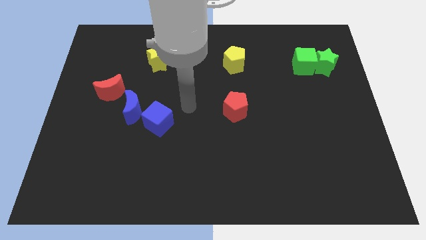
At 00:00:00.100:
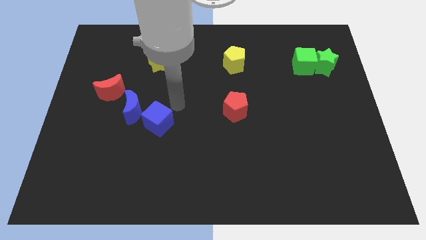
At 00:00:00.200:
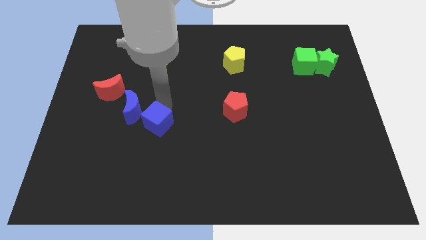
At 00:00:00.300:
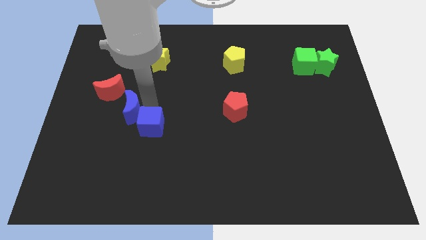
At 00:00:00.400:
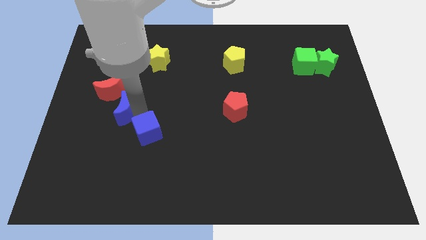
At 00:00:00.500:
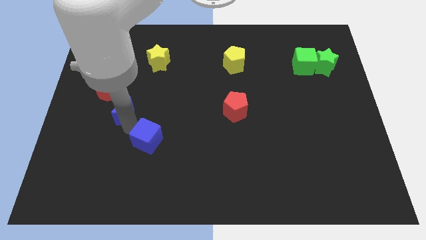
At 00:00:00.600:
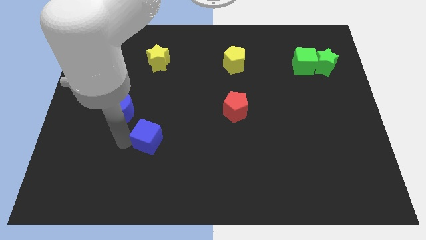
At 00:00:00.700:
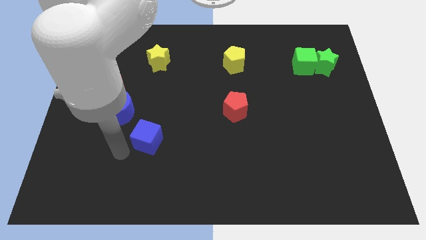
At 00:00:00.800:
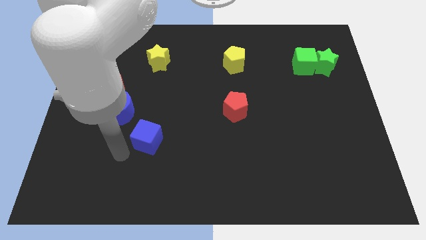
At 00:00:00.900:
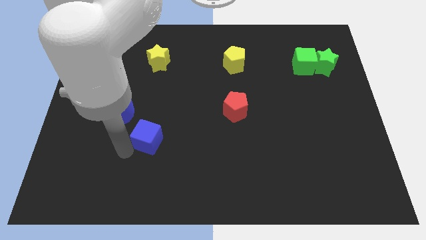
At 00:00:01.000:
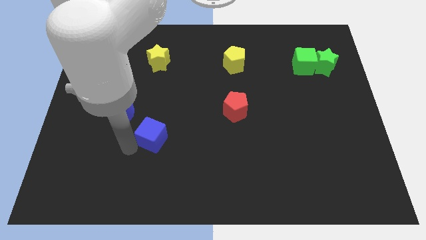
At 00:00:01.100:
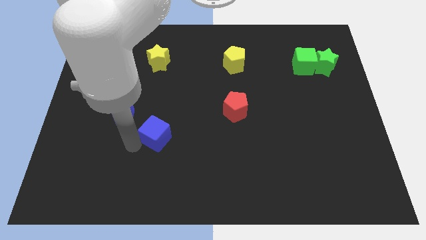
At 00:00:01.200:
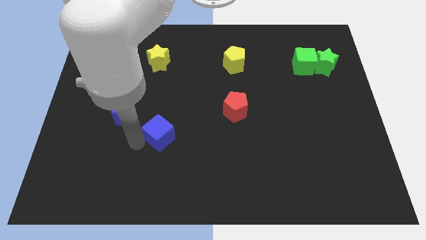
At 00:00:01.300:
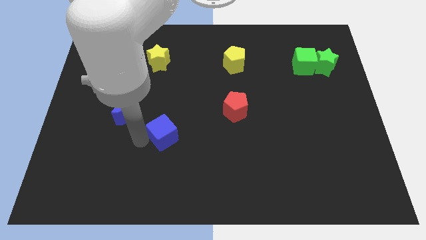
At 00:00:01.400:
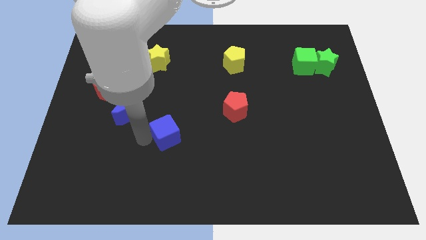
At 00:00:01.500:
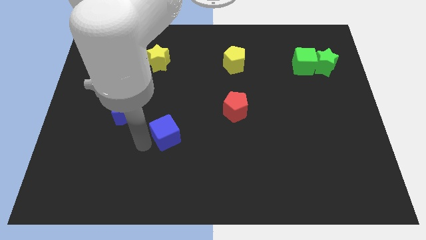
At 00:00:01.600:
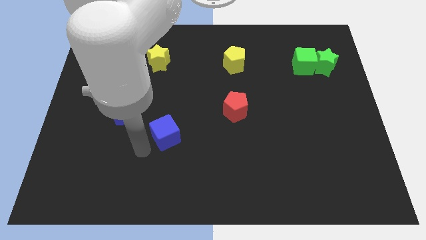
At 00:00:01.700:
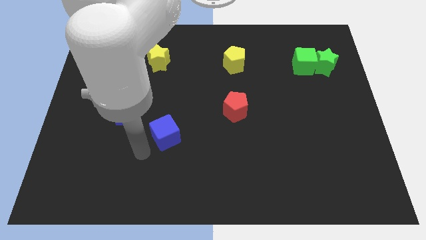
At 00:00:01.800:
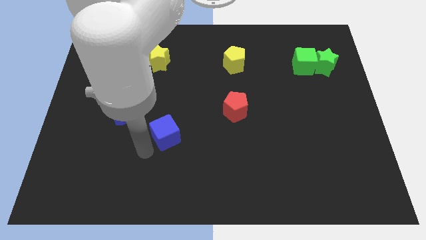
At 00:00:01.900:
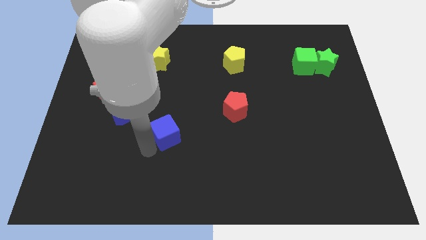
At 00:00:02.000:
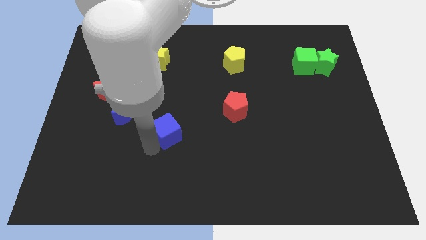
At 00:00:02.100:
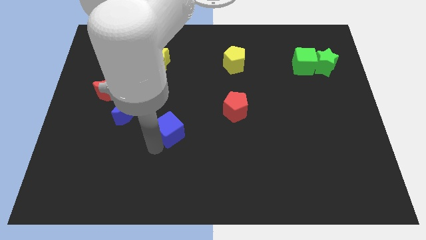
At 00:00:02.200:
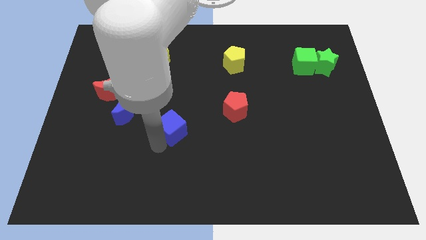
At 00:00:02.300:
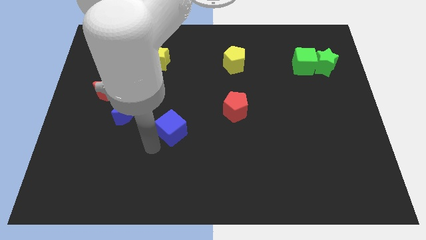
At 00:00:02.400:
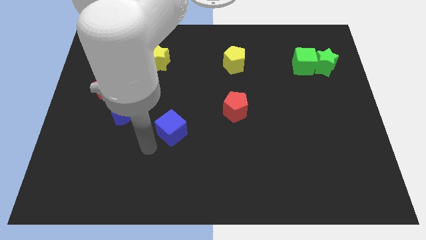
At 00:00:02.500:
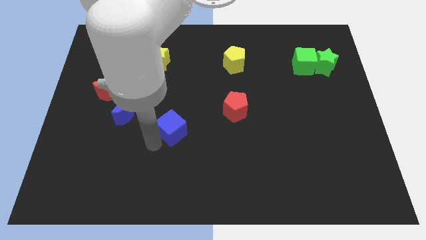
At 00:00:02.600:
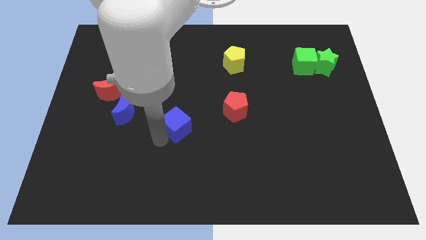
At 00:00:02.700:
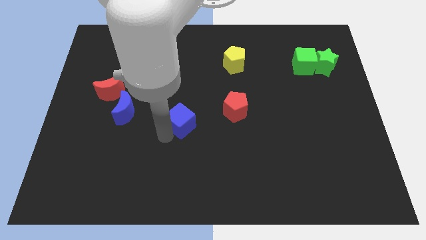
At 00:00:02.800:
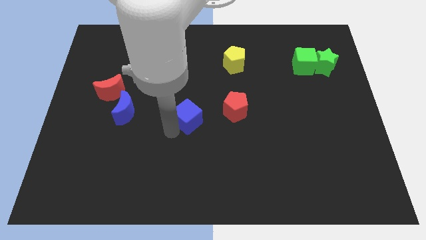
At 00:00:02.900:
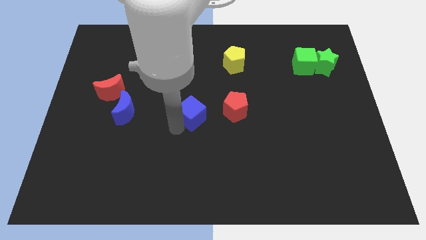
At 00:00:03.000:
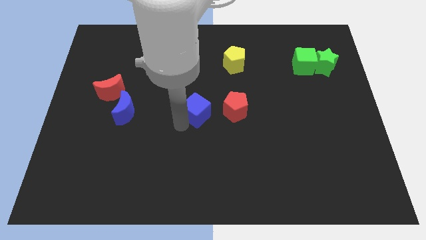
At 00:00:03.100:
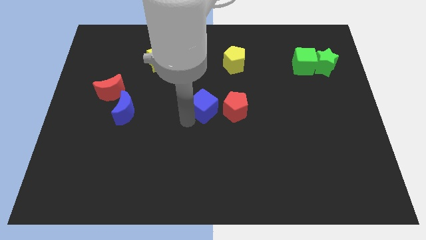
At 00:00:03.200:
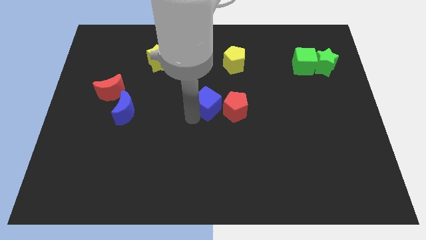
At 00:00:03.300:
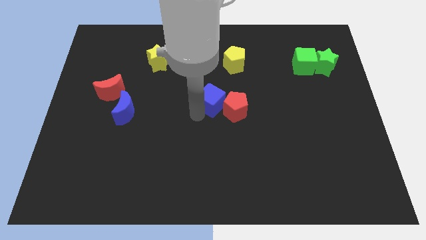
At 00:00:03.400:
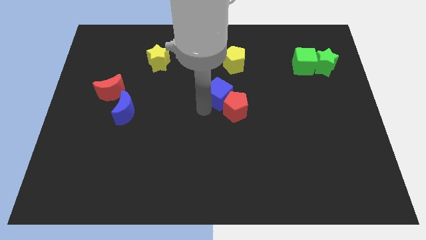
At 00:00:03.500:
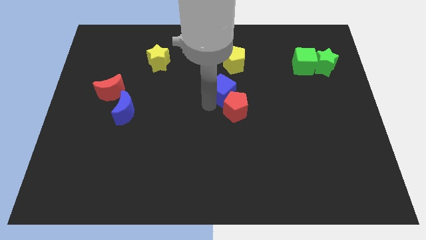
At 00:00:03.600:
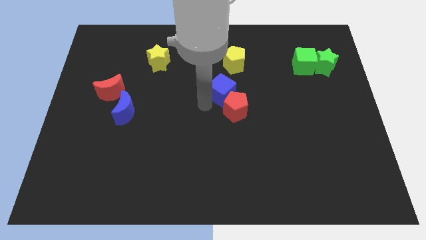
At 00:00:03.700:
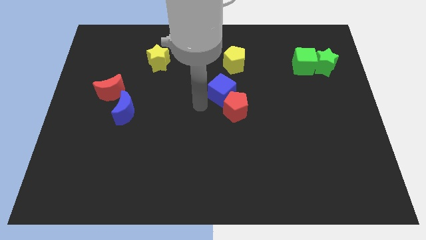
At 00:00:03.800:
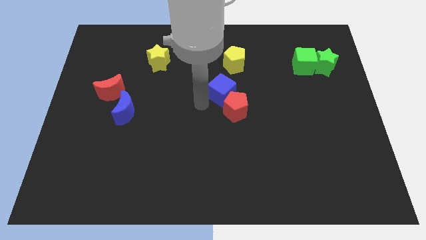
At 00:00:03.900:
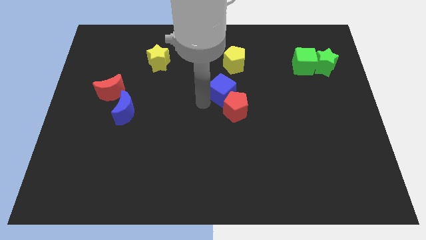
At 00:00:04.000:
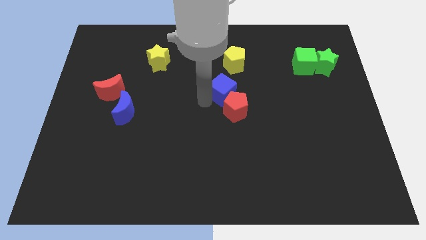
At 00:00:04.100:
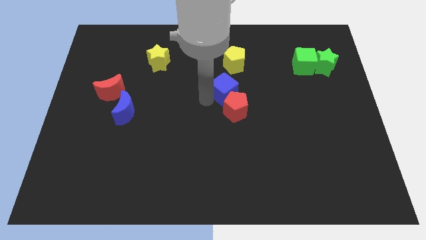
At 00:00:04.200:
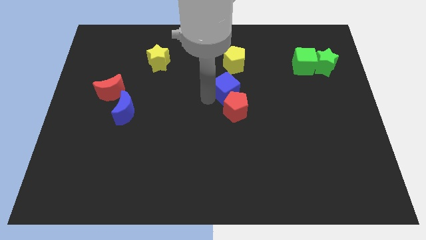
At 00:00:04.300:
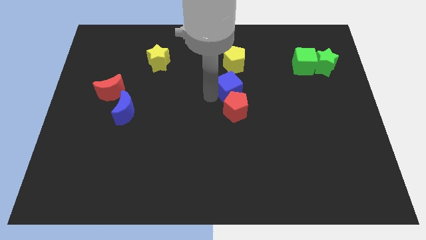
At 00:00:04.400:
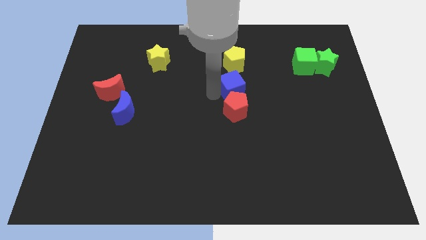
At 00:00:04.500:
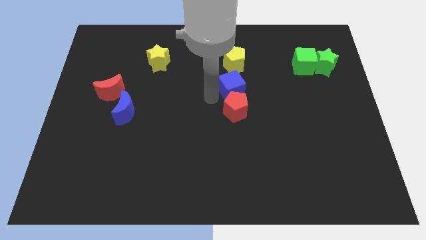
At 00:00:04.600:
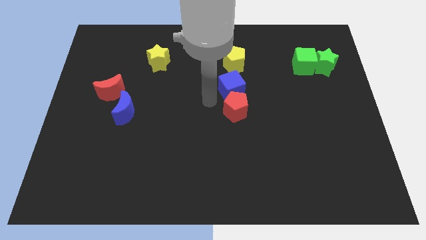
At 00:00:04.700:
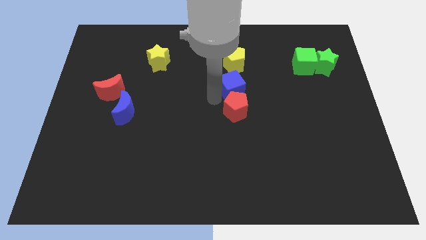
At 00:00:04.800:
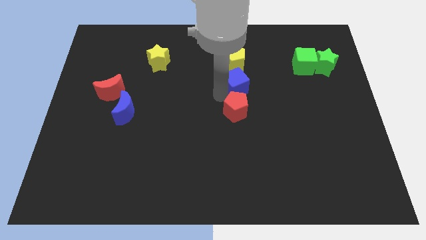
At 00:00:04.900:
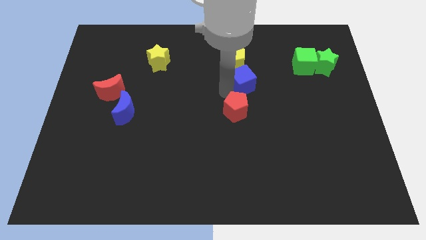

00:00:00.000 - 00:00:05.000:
move the blue cube to the bottom right side of the yellow pentagon

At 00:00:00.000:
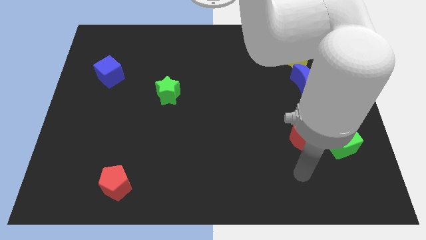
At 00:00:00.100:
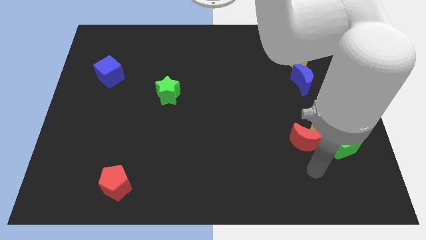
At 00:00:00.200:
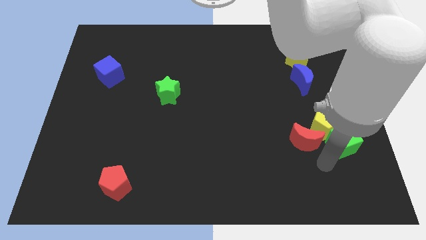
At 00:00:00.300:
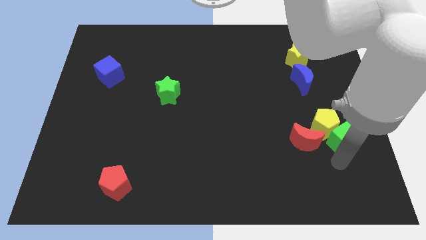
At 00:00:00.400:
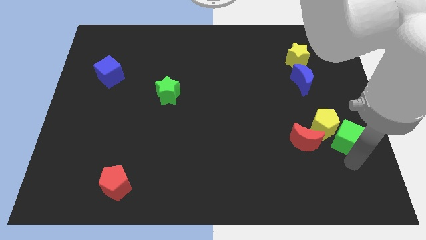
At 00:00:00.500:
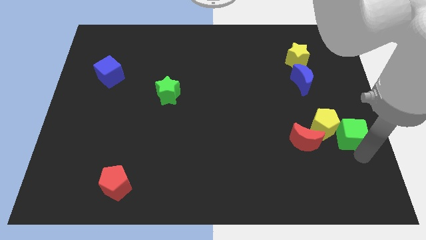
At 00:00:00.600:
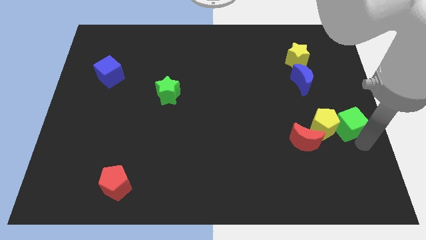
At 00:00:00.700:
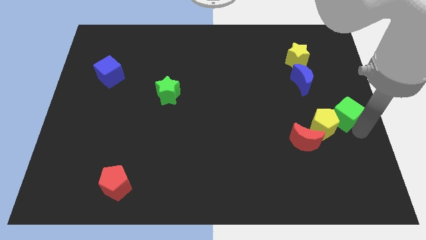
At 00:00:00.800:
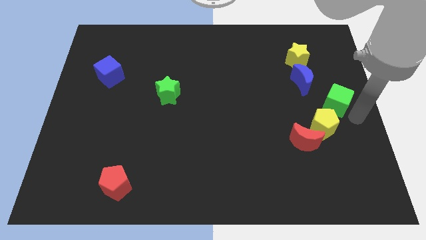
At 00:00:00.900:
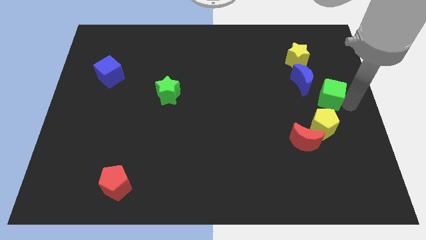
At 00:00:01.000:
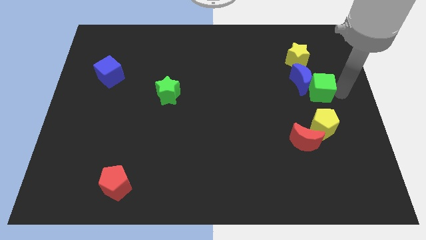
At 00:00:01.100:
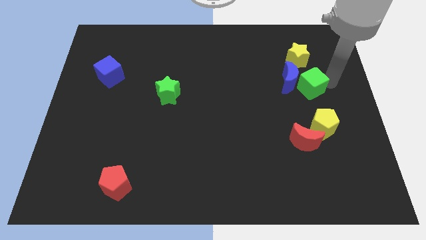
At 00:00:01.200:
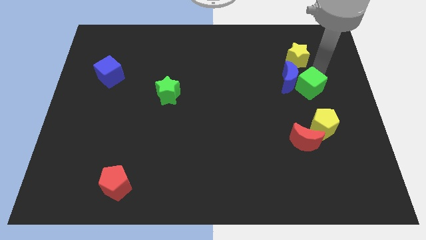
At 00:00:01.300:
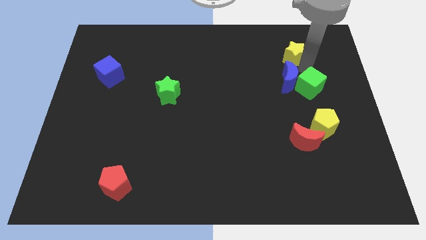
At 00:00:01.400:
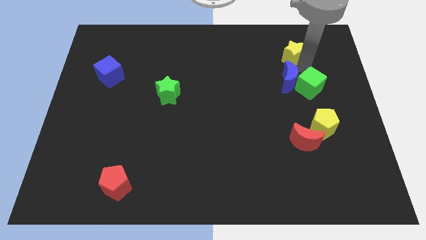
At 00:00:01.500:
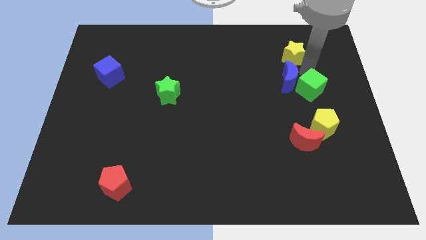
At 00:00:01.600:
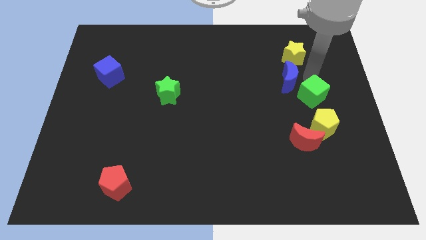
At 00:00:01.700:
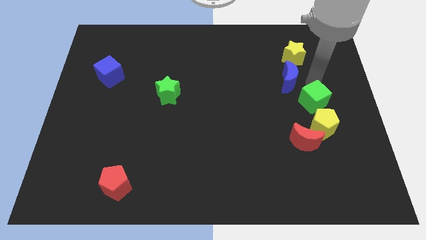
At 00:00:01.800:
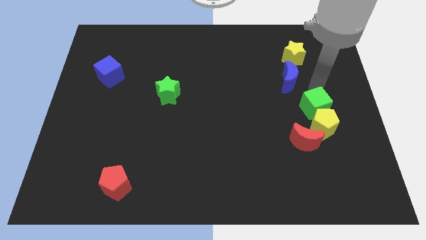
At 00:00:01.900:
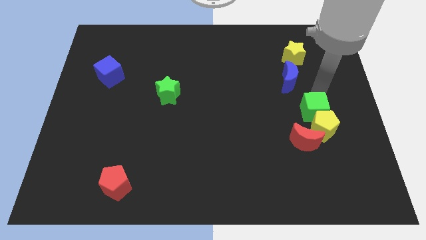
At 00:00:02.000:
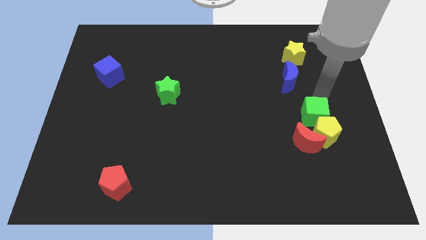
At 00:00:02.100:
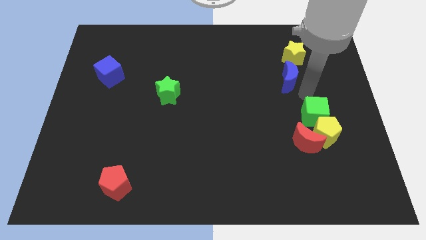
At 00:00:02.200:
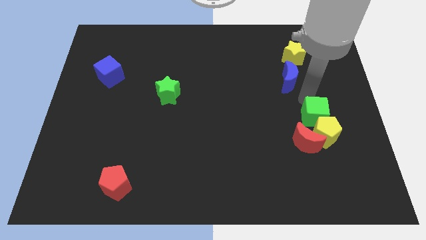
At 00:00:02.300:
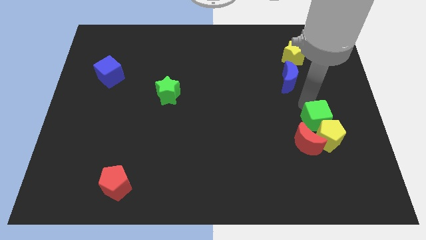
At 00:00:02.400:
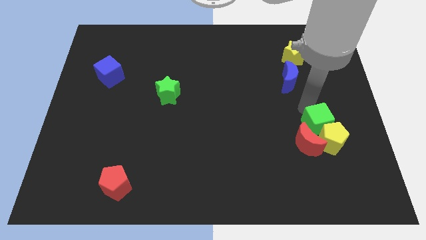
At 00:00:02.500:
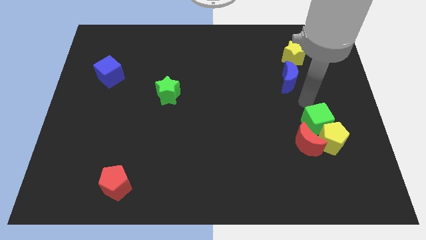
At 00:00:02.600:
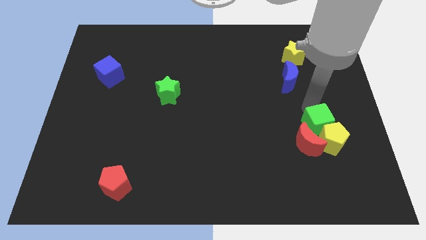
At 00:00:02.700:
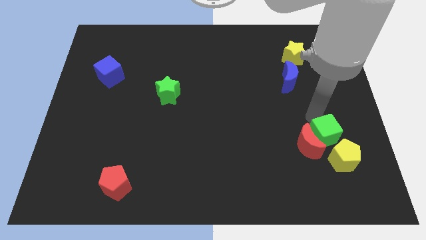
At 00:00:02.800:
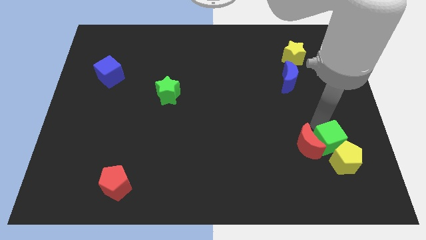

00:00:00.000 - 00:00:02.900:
slide the green cube diagonally down and to the right of the red moon

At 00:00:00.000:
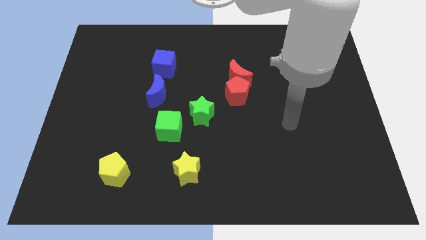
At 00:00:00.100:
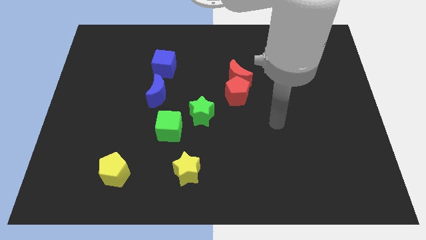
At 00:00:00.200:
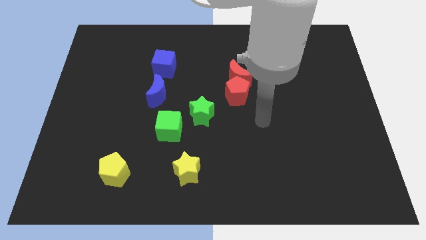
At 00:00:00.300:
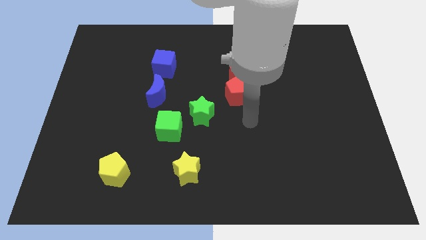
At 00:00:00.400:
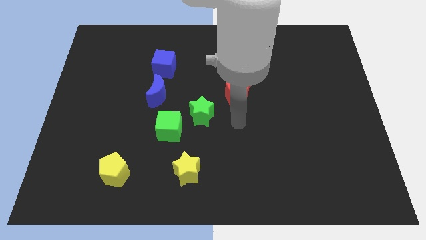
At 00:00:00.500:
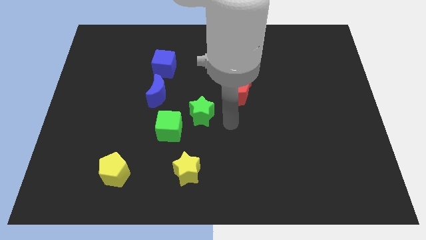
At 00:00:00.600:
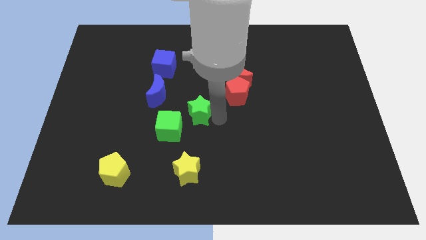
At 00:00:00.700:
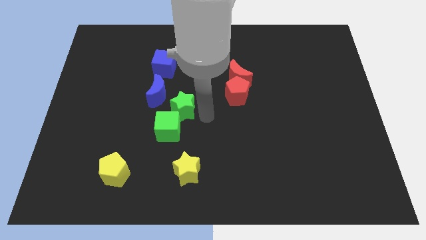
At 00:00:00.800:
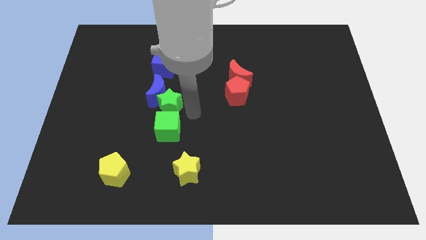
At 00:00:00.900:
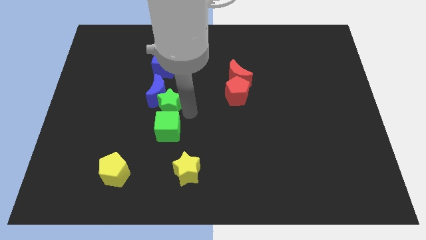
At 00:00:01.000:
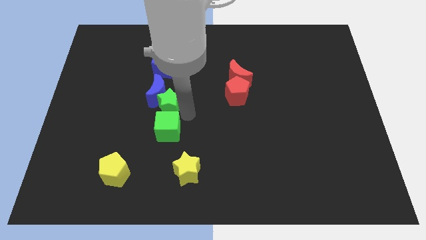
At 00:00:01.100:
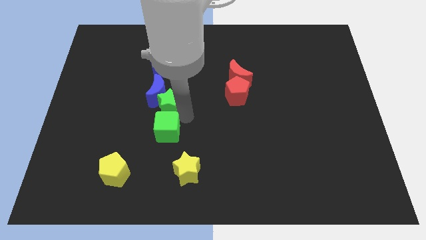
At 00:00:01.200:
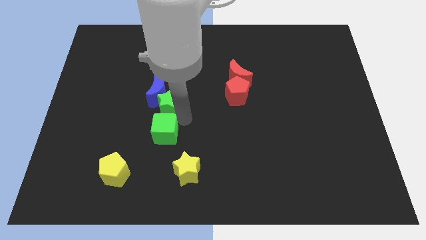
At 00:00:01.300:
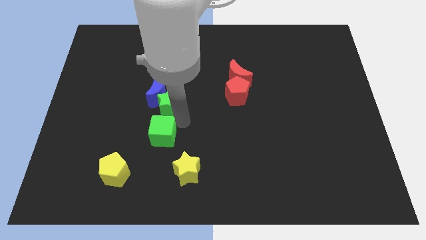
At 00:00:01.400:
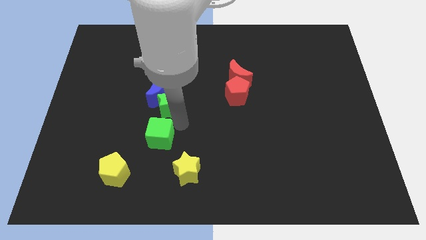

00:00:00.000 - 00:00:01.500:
push the green cube to the top right of the yellow pentagon
